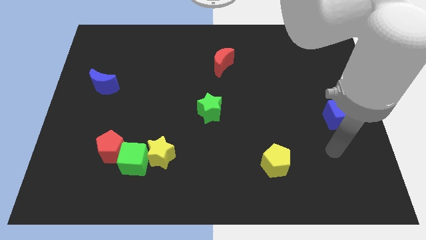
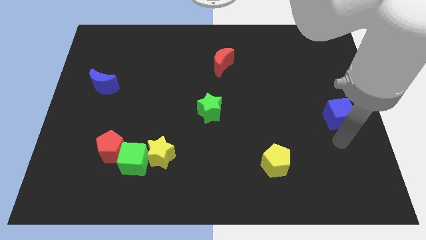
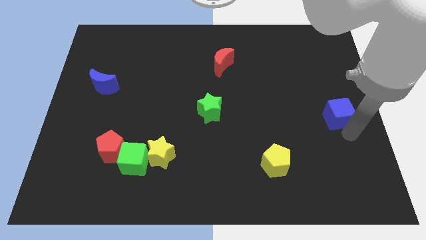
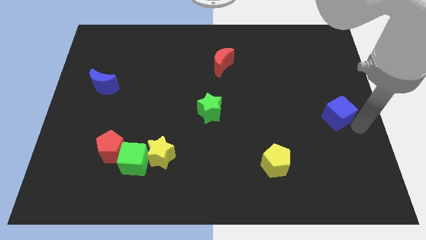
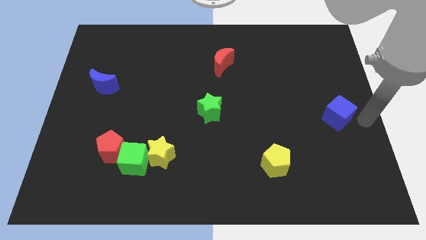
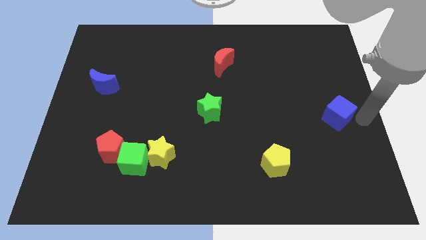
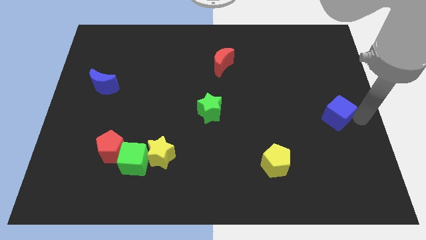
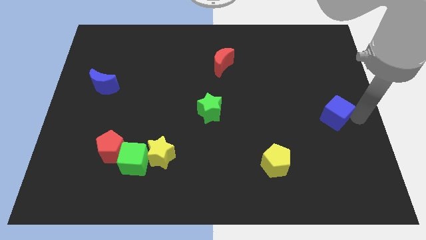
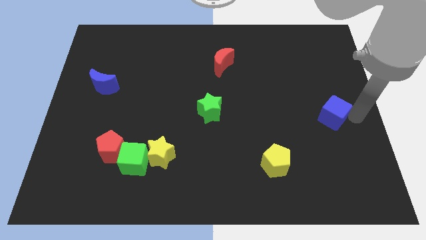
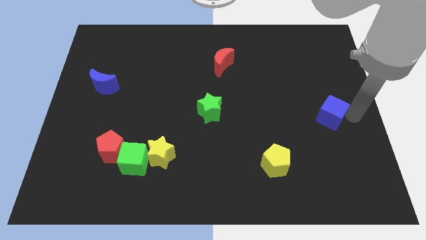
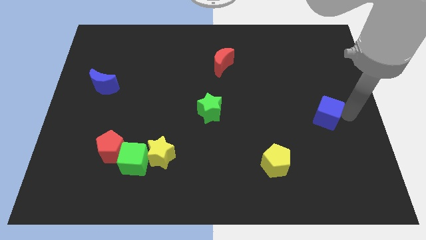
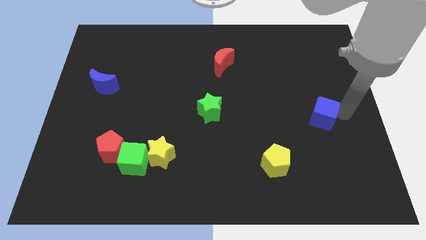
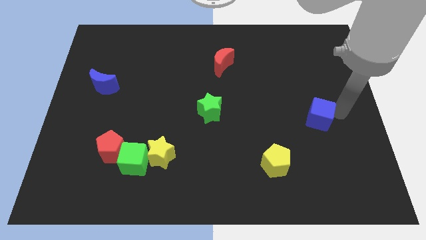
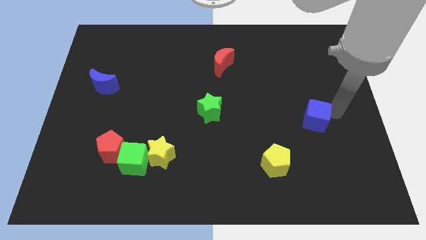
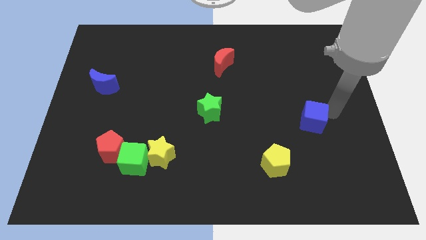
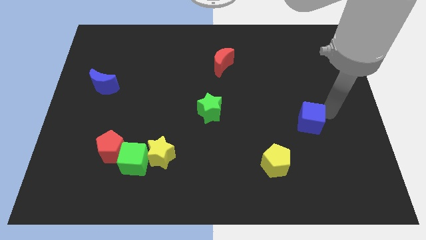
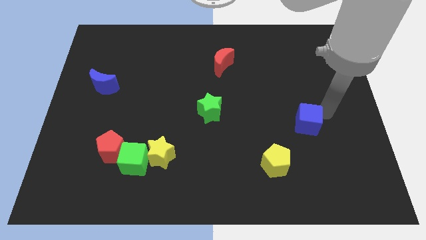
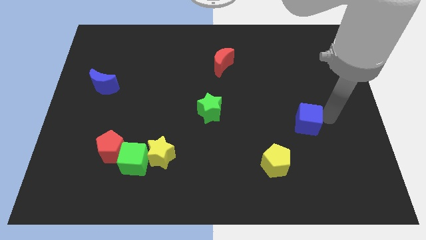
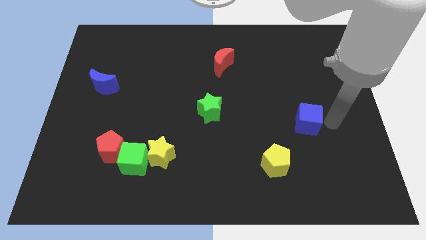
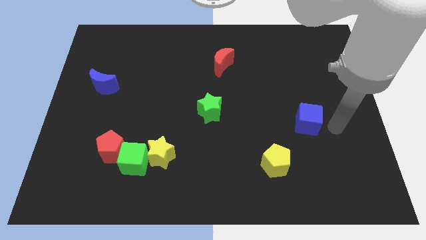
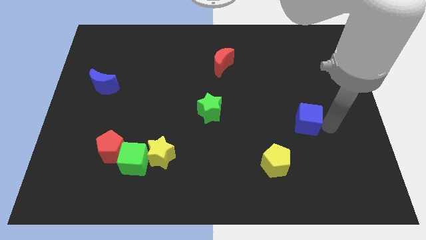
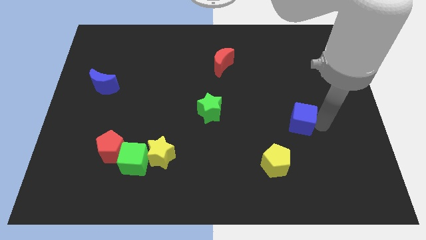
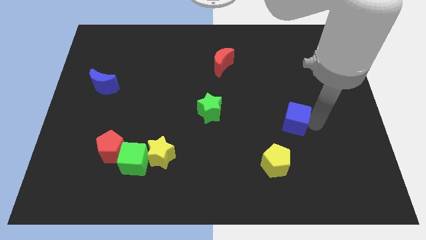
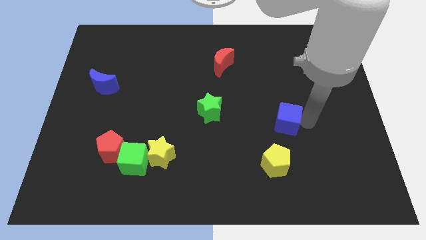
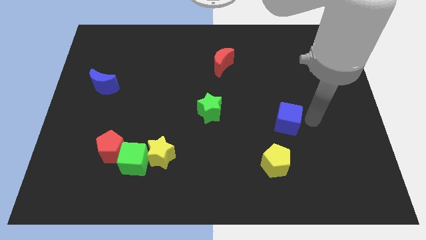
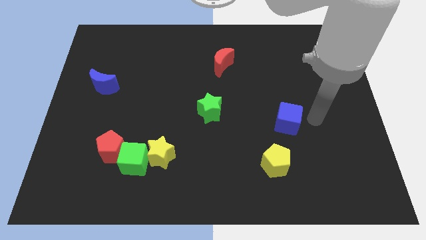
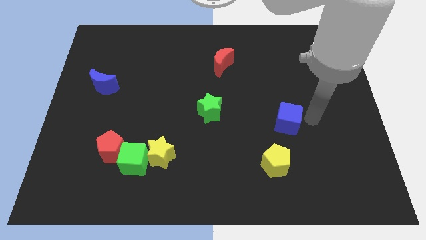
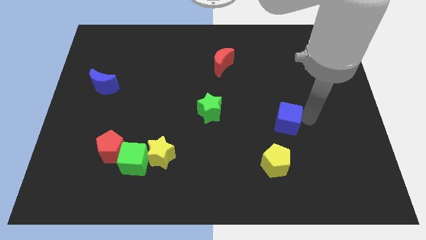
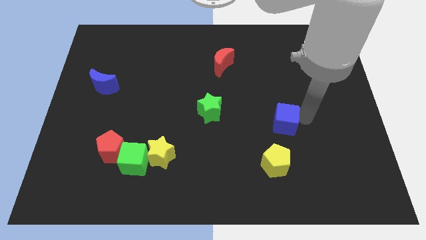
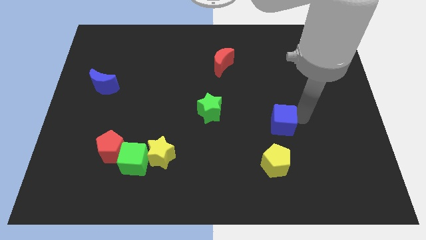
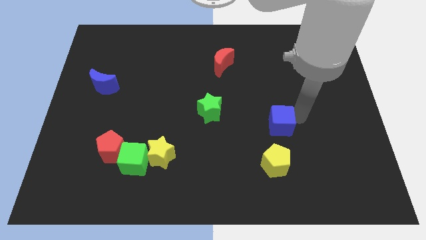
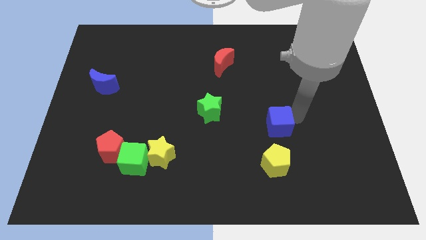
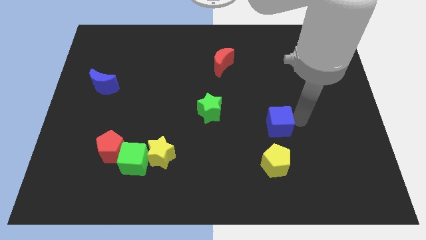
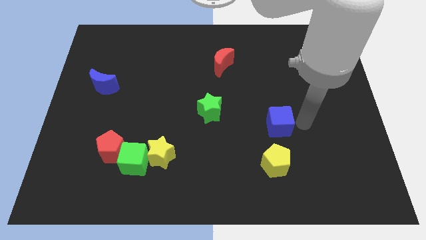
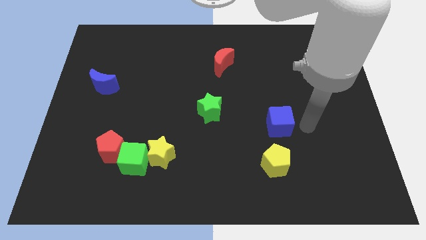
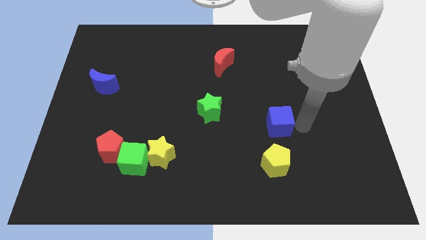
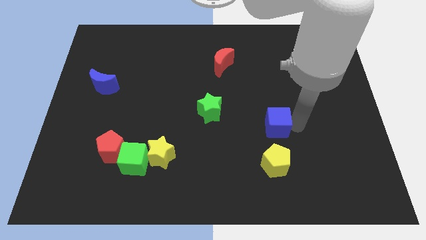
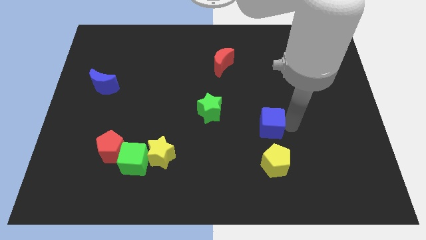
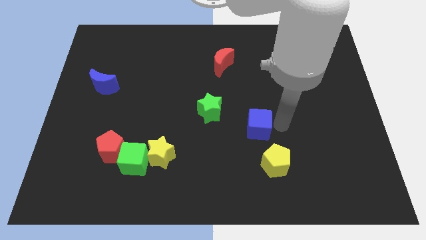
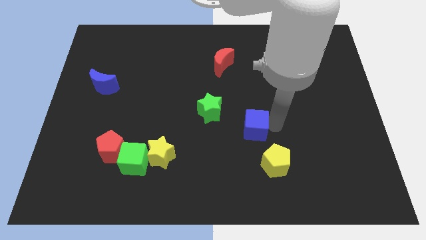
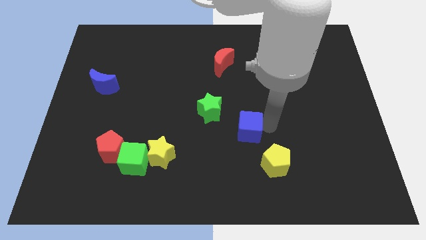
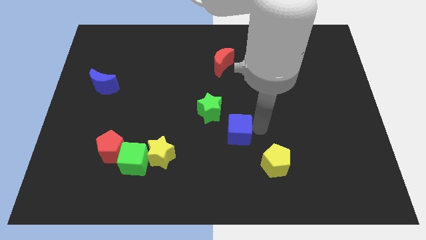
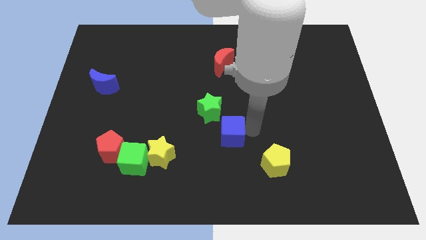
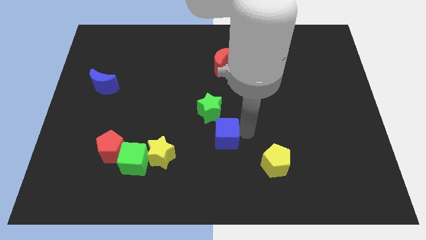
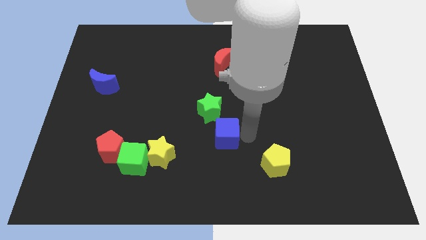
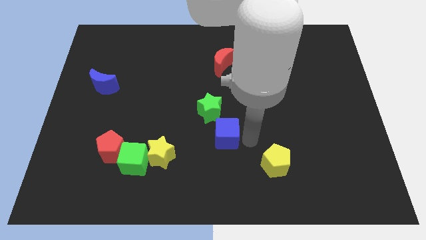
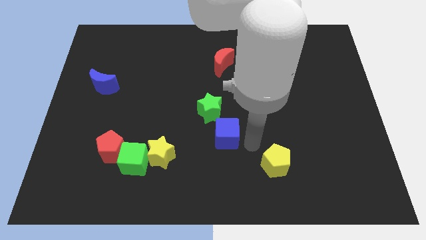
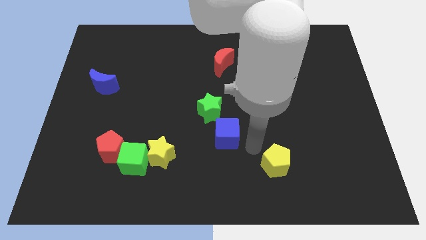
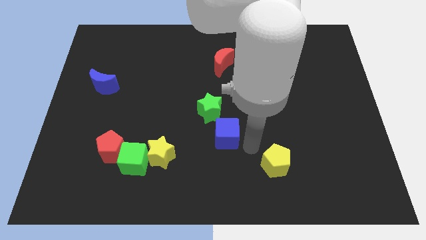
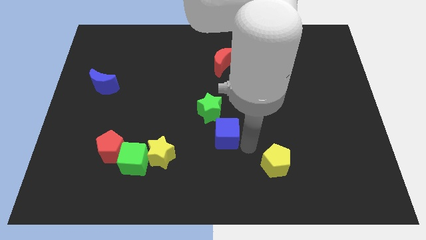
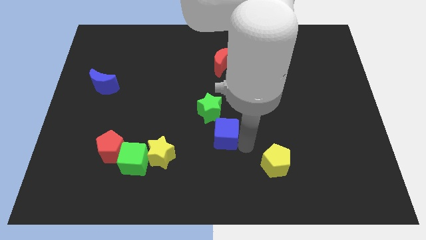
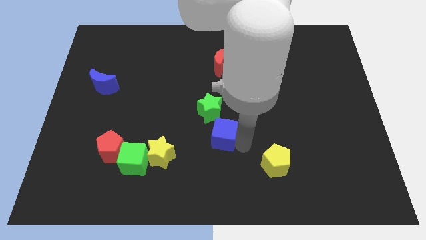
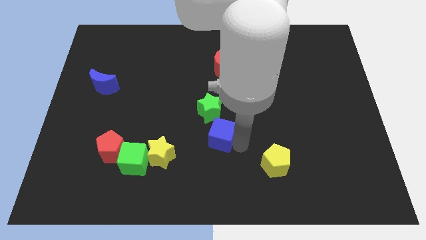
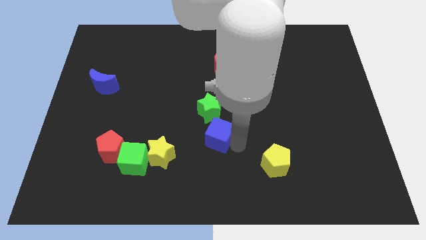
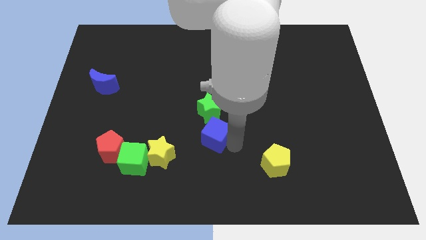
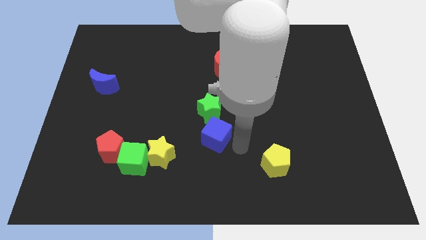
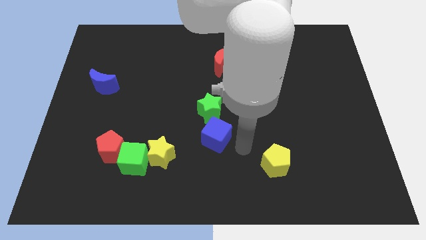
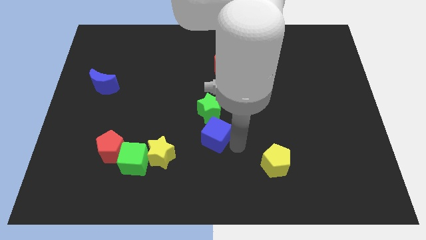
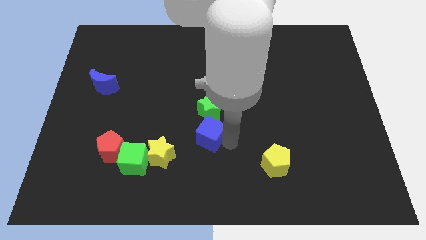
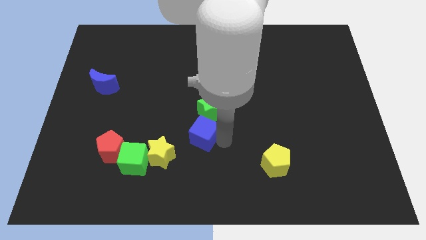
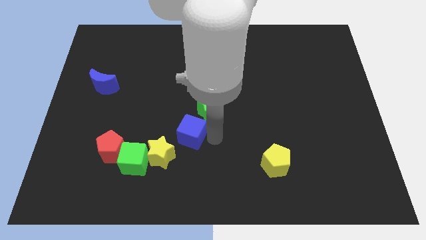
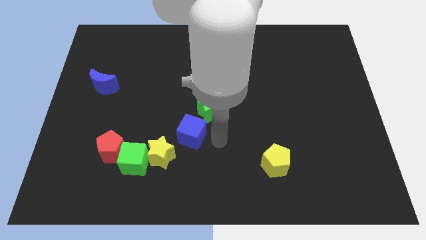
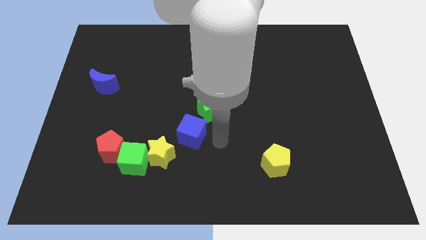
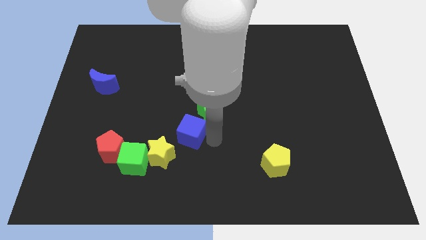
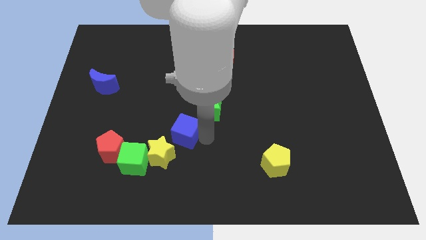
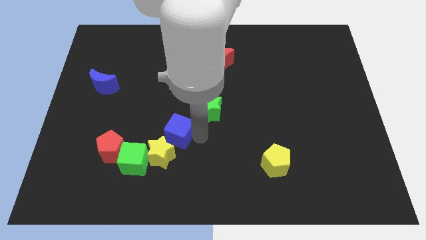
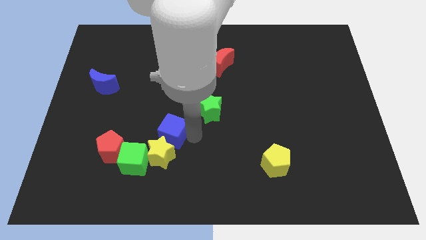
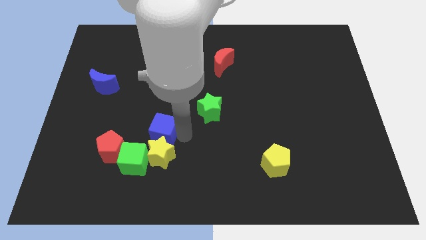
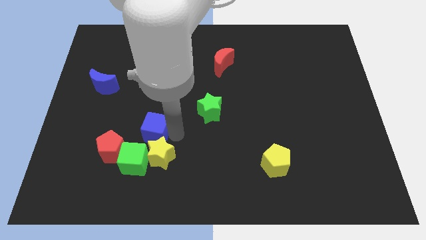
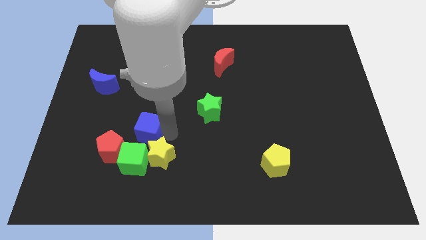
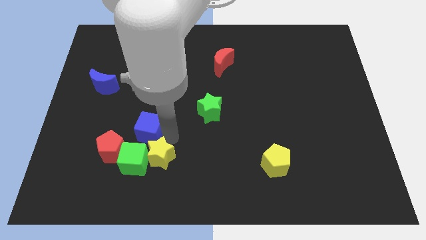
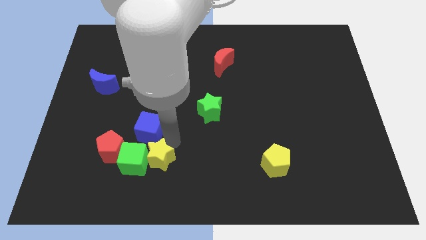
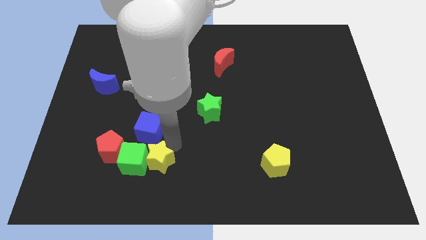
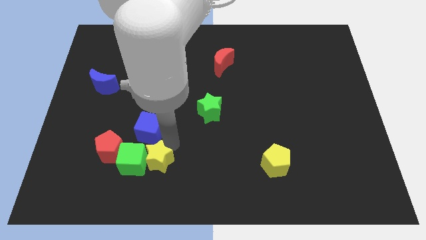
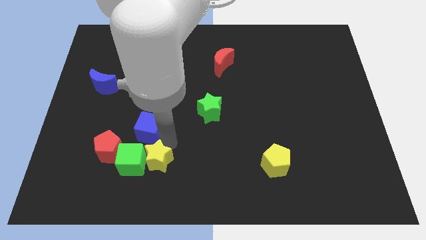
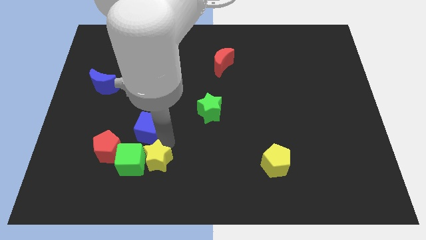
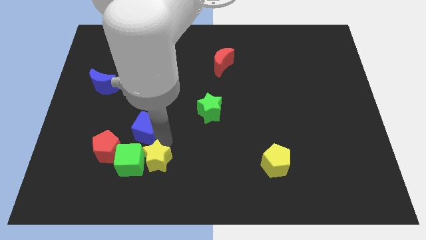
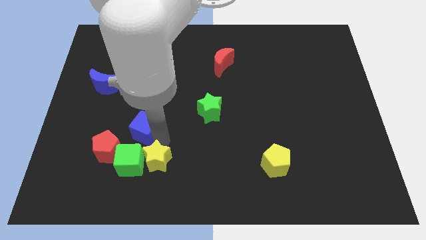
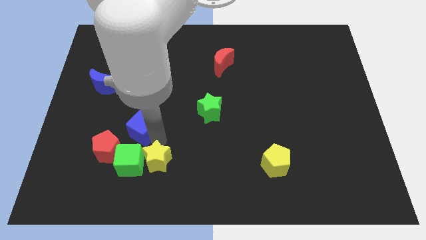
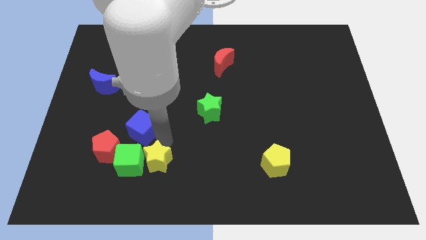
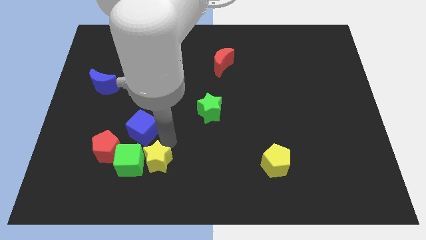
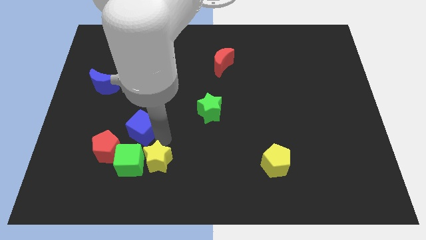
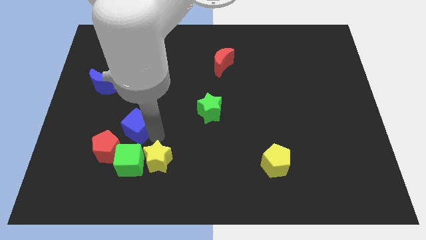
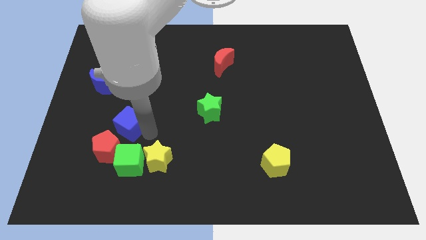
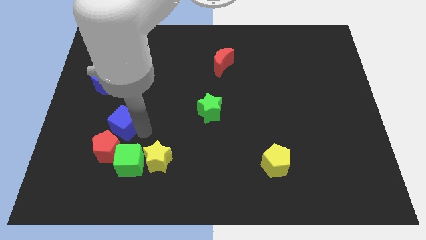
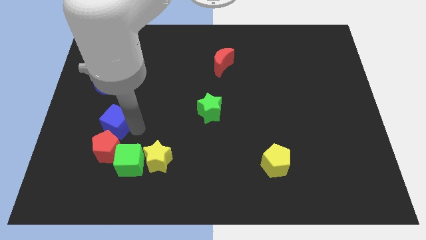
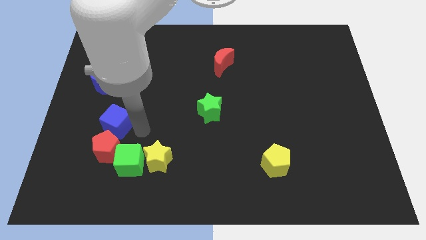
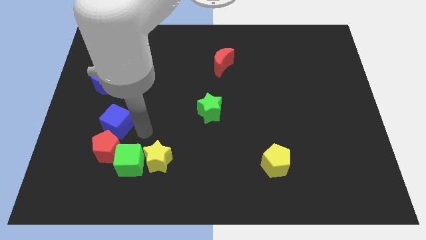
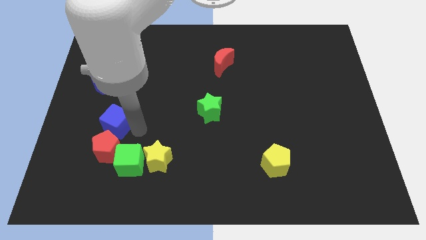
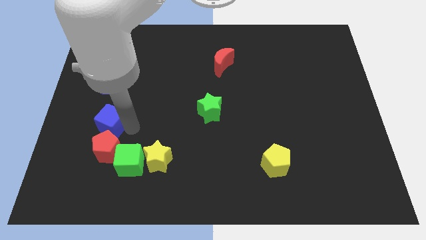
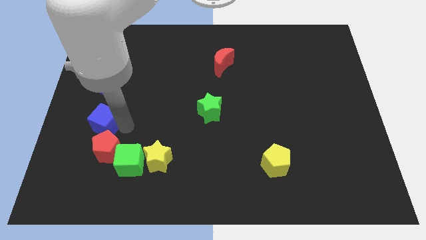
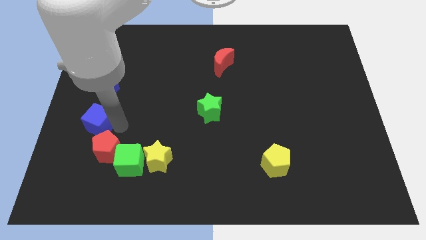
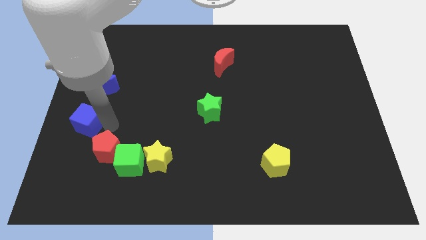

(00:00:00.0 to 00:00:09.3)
move the blue cube to the left side
